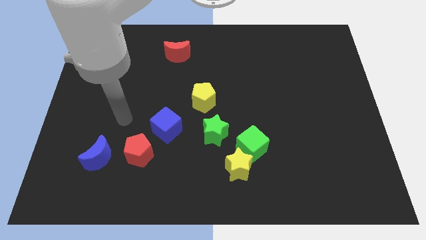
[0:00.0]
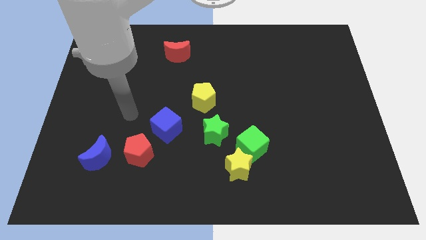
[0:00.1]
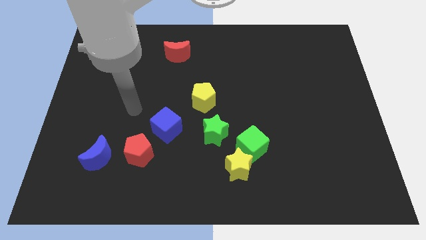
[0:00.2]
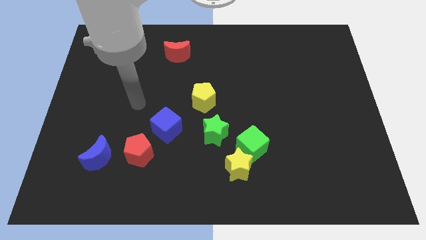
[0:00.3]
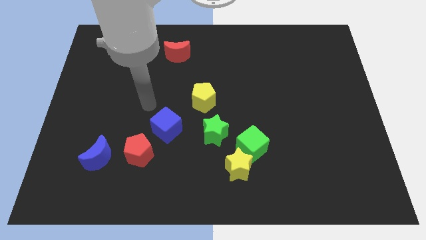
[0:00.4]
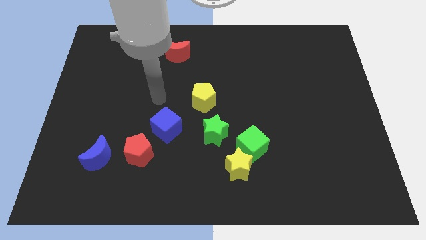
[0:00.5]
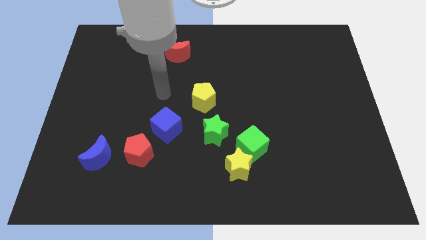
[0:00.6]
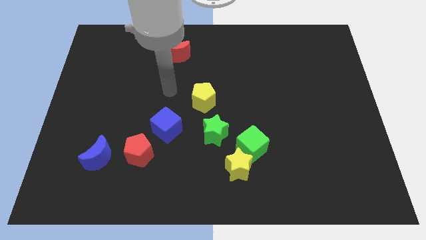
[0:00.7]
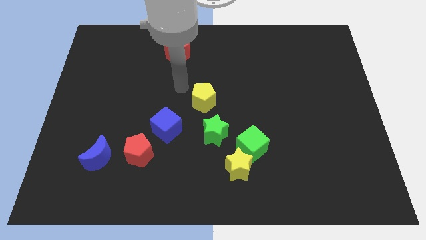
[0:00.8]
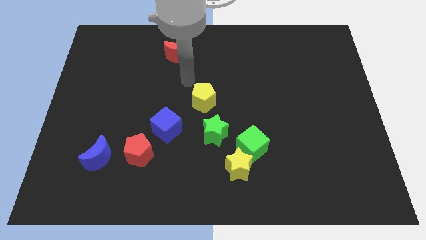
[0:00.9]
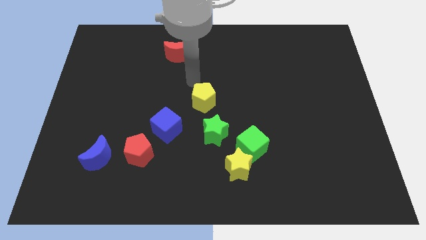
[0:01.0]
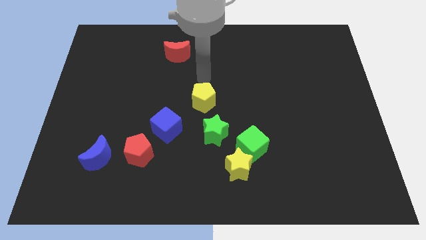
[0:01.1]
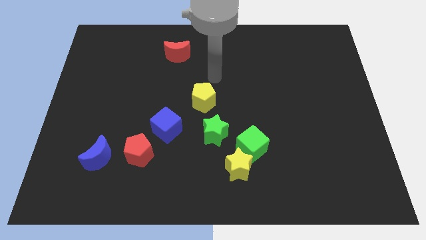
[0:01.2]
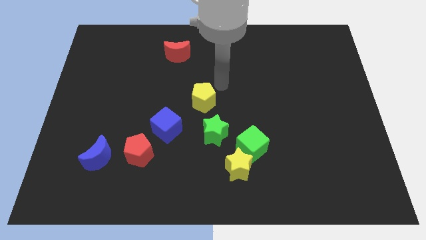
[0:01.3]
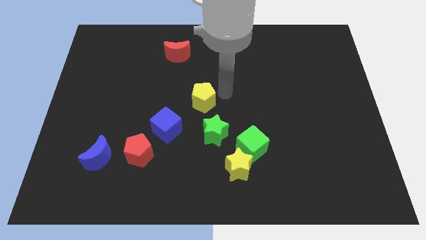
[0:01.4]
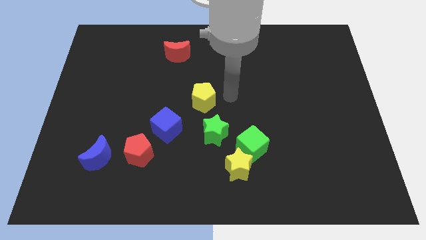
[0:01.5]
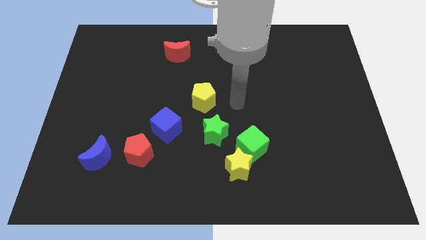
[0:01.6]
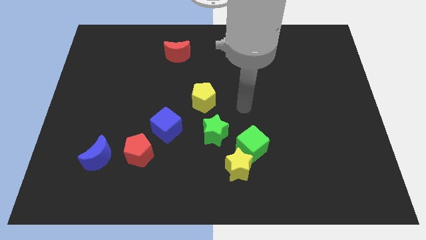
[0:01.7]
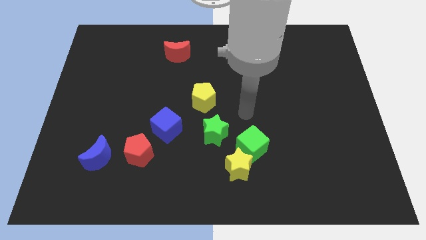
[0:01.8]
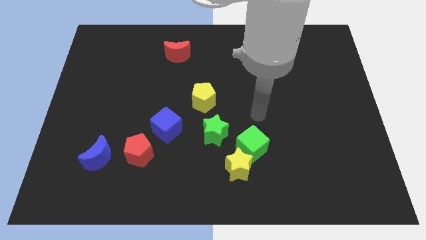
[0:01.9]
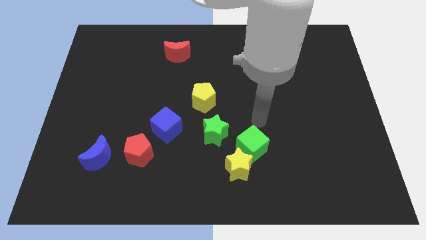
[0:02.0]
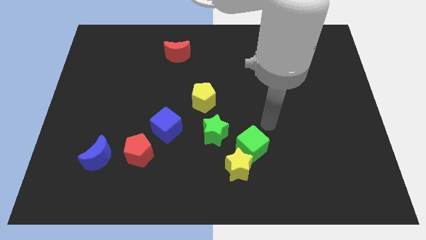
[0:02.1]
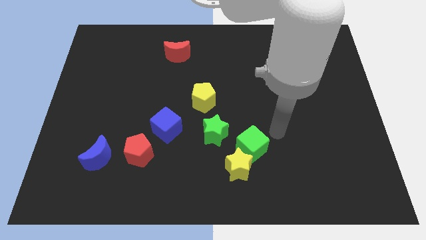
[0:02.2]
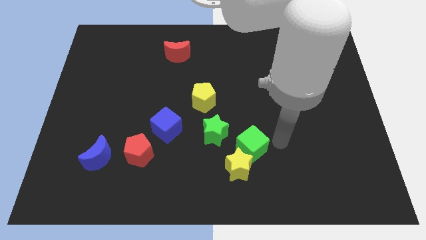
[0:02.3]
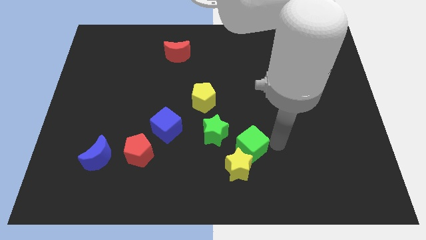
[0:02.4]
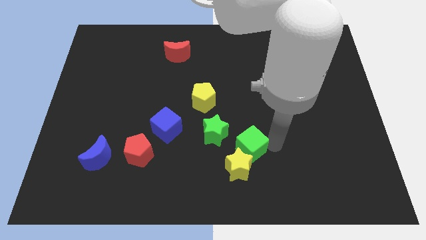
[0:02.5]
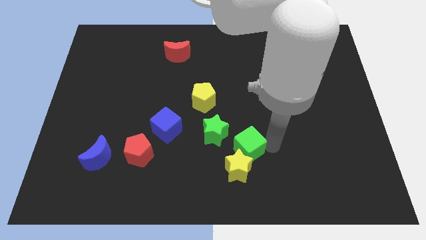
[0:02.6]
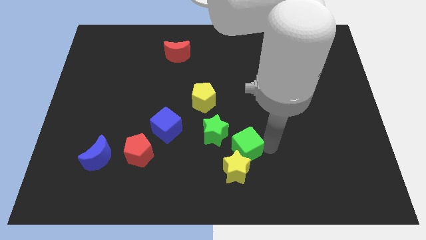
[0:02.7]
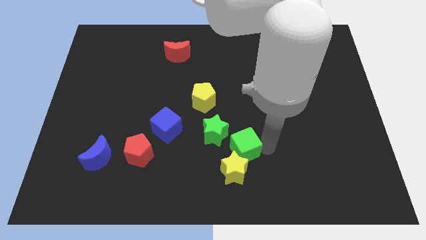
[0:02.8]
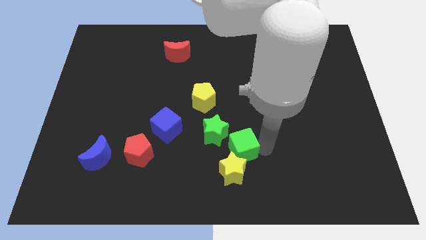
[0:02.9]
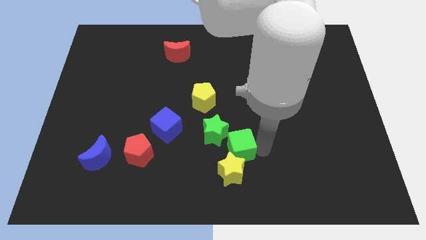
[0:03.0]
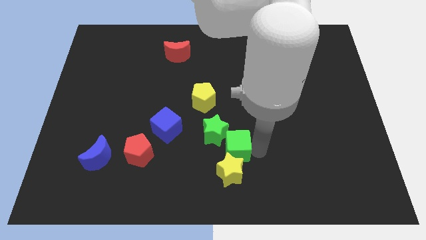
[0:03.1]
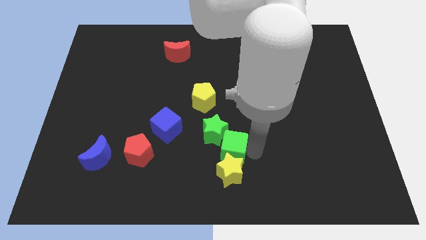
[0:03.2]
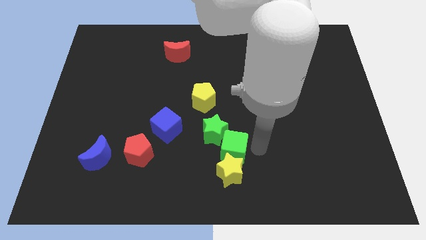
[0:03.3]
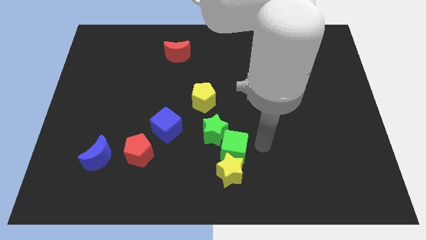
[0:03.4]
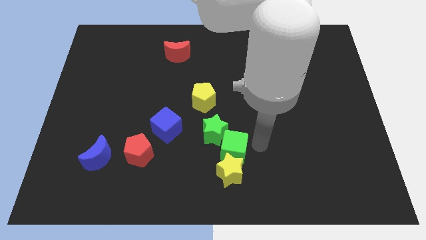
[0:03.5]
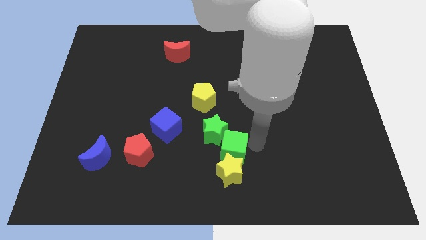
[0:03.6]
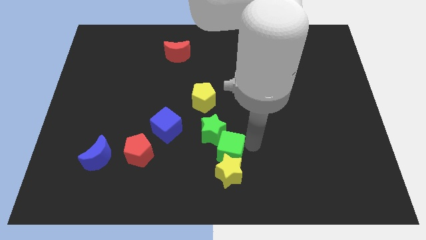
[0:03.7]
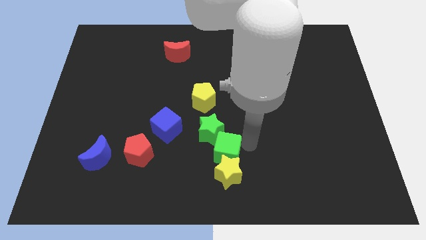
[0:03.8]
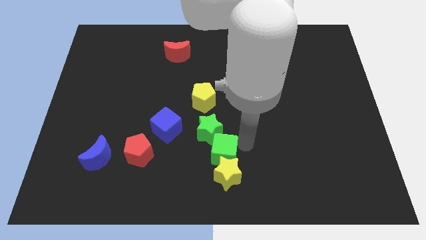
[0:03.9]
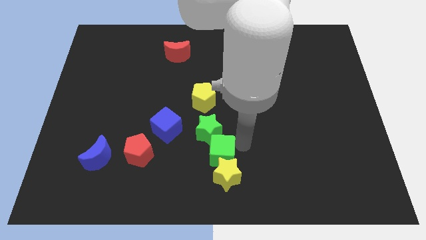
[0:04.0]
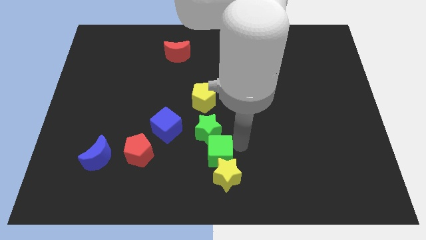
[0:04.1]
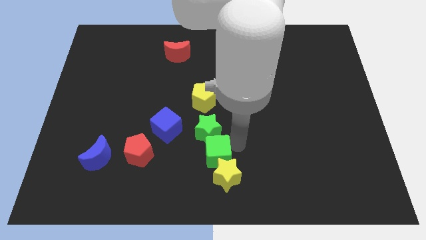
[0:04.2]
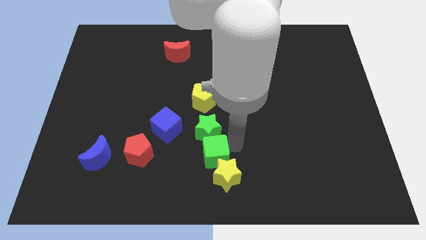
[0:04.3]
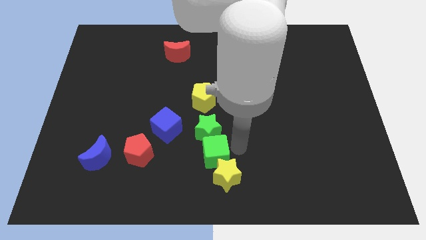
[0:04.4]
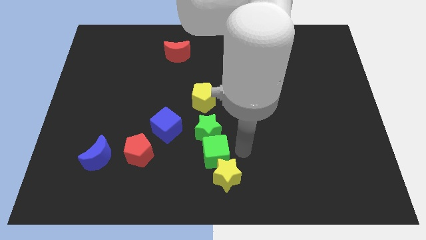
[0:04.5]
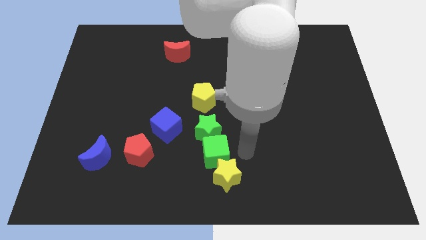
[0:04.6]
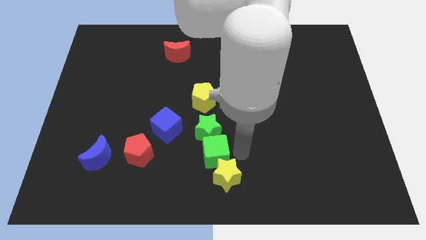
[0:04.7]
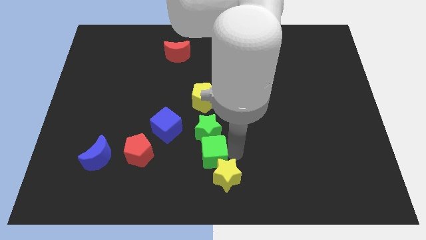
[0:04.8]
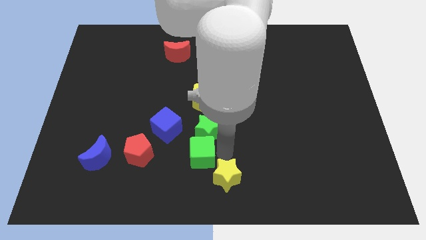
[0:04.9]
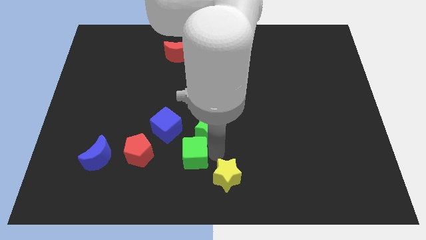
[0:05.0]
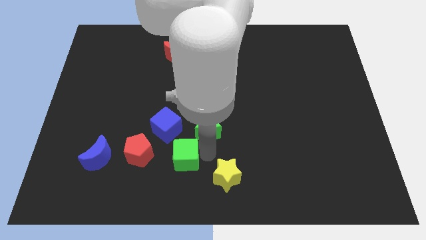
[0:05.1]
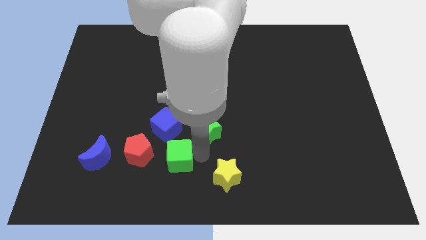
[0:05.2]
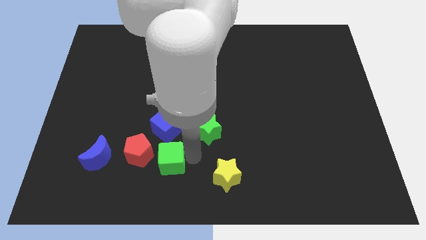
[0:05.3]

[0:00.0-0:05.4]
slide the green cube right of the blue moon

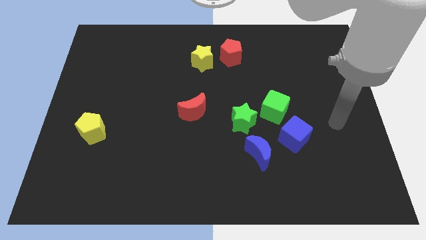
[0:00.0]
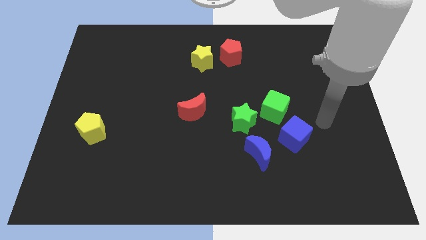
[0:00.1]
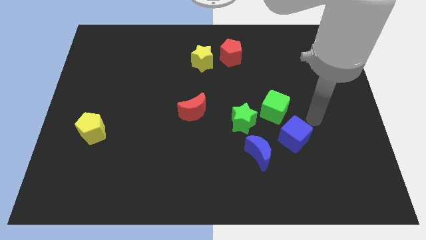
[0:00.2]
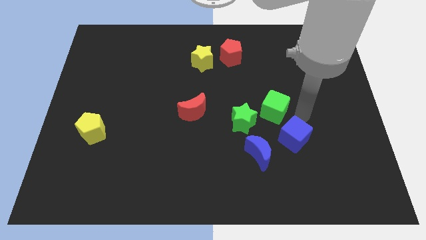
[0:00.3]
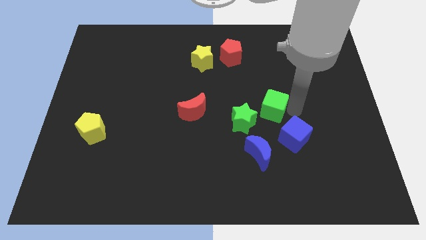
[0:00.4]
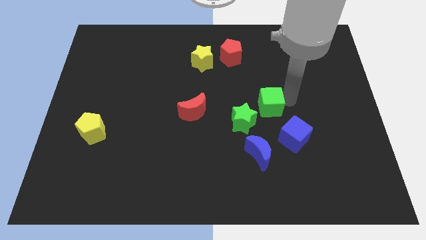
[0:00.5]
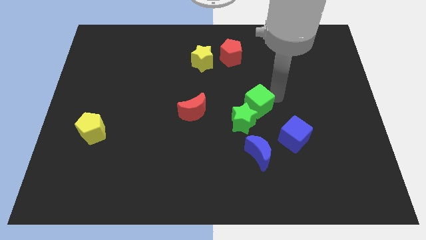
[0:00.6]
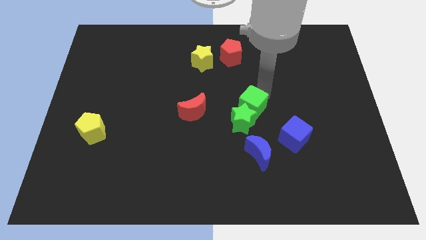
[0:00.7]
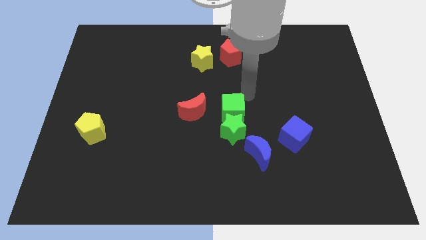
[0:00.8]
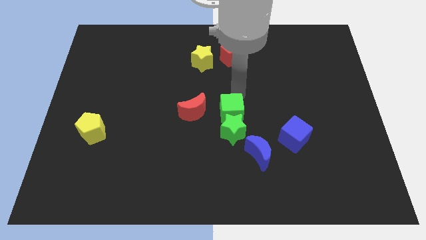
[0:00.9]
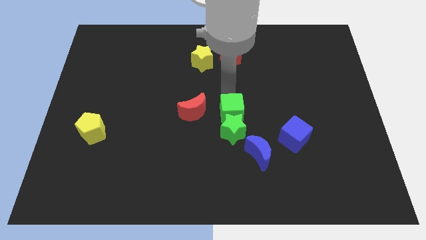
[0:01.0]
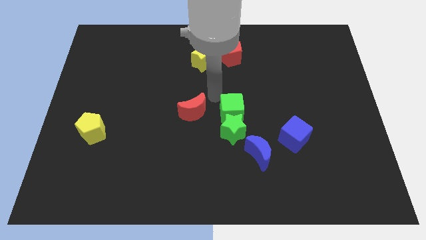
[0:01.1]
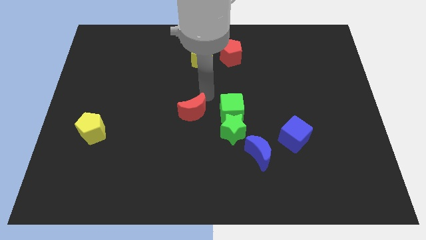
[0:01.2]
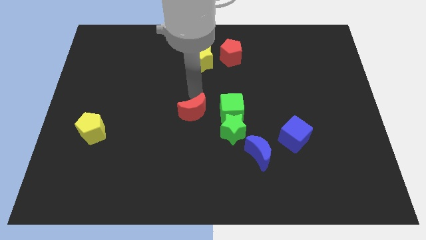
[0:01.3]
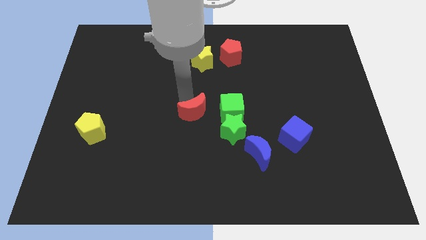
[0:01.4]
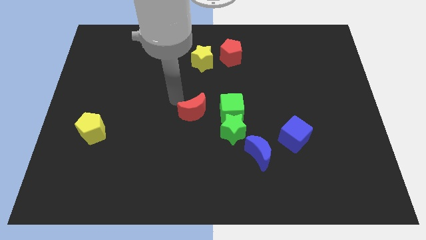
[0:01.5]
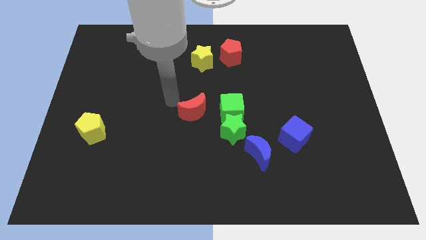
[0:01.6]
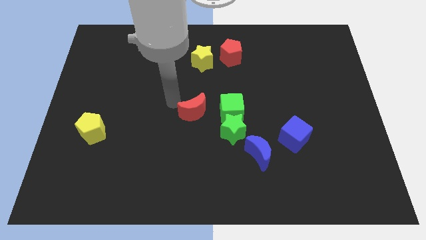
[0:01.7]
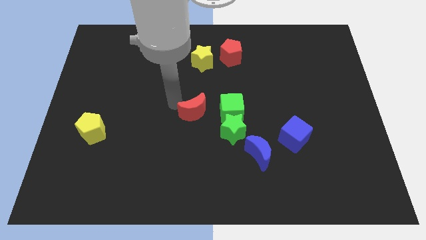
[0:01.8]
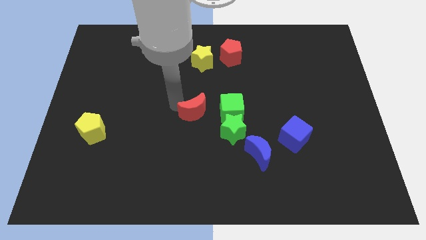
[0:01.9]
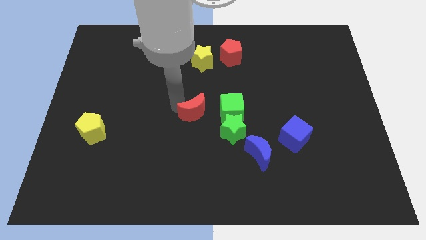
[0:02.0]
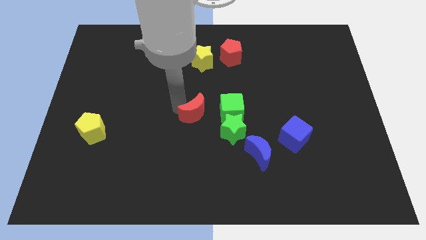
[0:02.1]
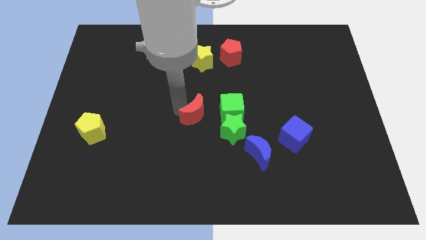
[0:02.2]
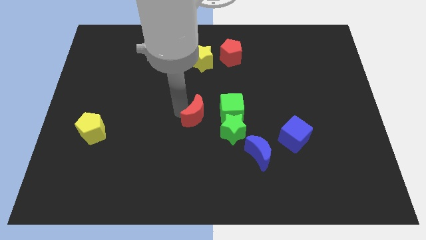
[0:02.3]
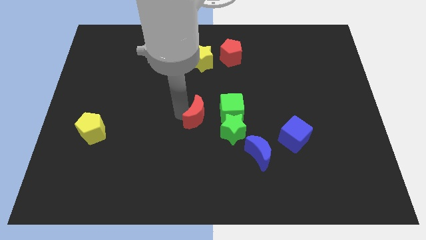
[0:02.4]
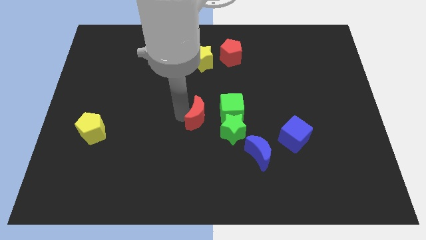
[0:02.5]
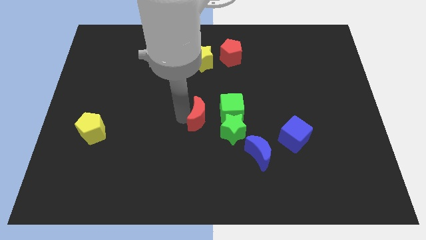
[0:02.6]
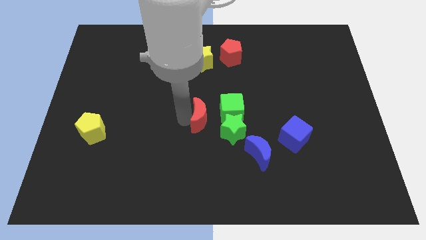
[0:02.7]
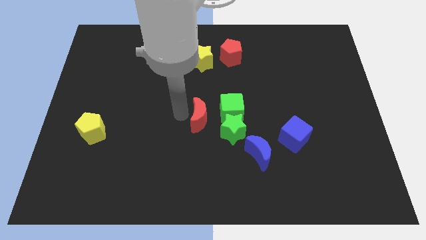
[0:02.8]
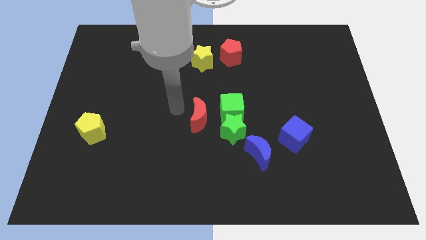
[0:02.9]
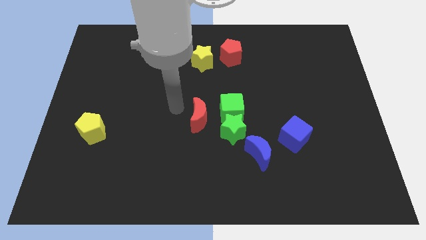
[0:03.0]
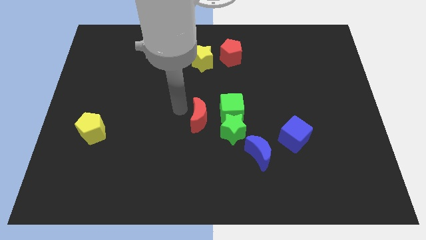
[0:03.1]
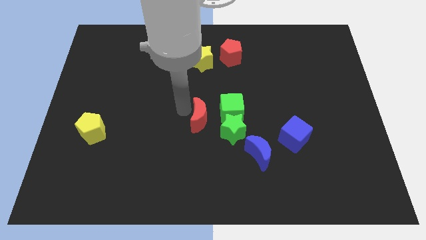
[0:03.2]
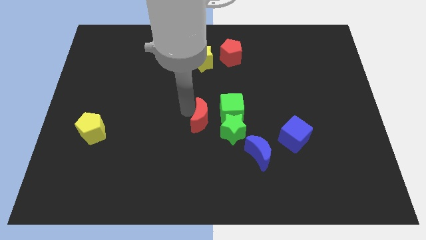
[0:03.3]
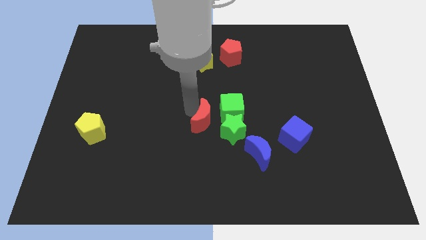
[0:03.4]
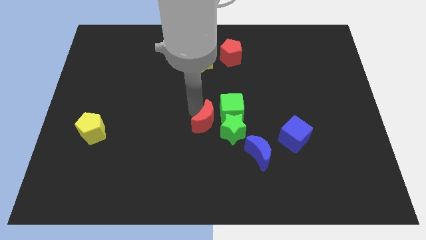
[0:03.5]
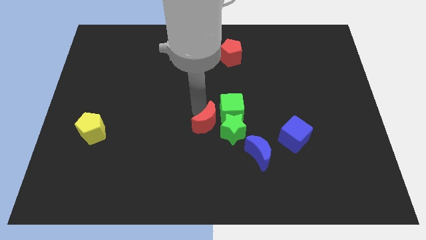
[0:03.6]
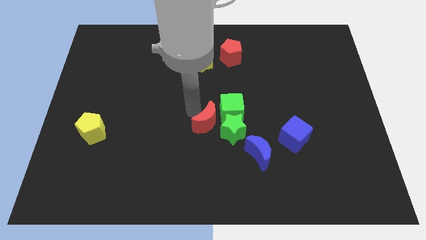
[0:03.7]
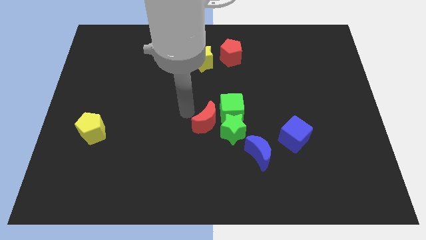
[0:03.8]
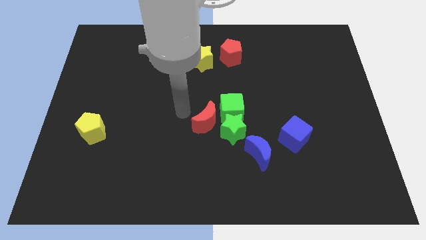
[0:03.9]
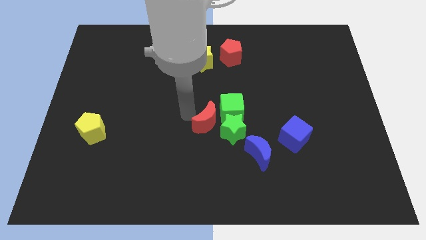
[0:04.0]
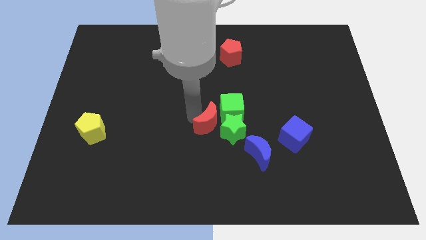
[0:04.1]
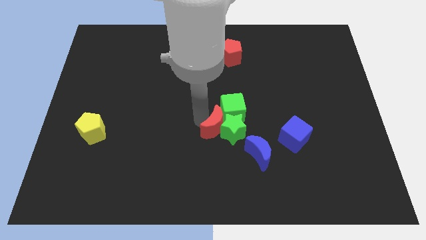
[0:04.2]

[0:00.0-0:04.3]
move the red moon diagonally up and to the left of the blue moon
